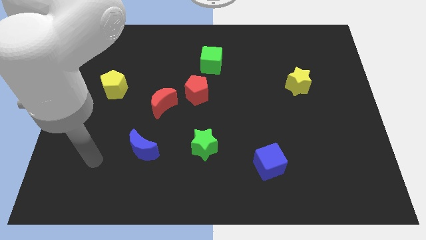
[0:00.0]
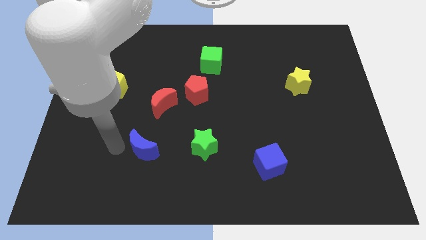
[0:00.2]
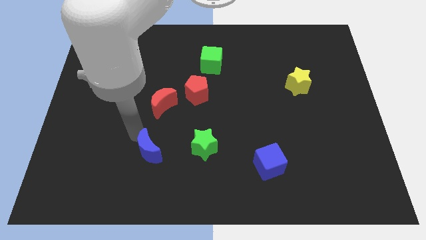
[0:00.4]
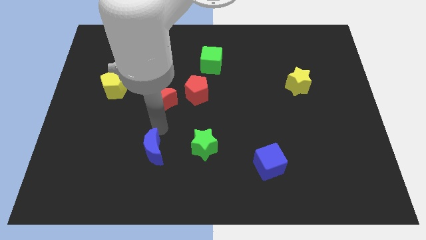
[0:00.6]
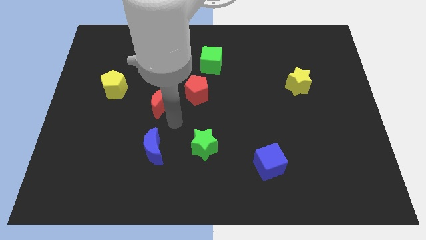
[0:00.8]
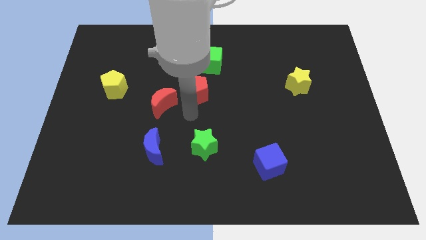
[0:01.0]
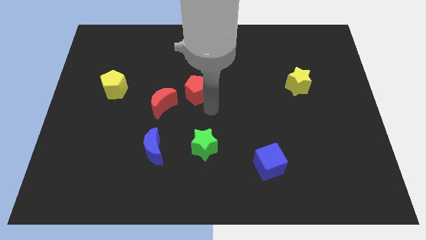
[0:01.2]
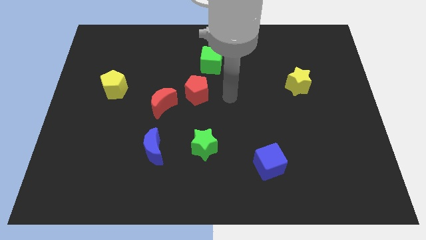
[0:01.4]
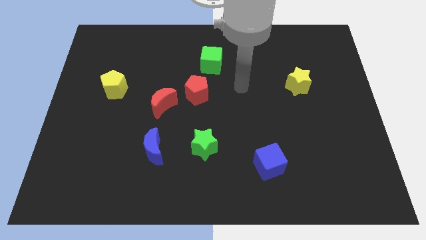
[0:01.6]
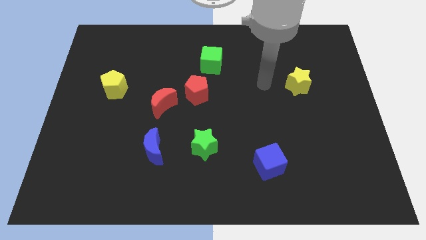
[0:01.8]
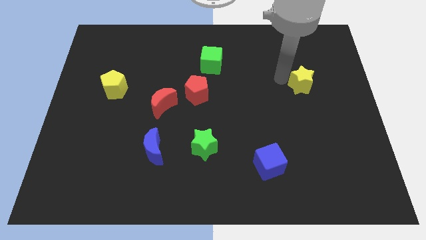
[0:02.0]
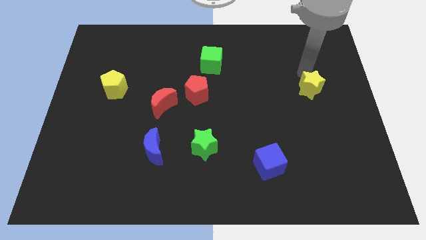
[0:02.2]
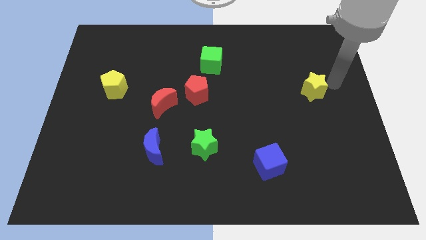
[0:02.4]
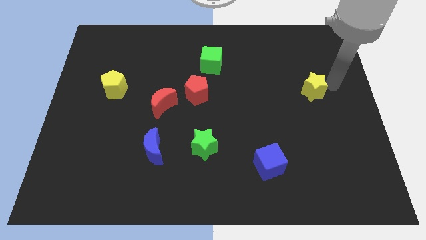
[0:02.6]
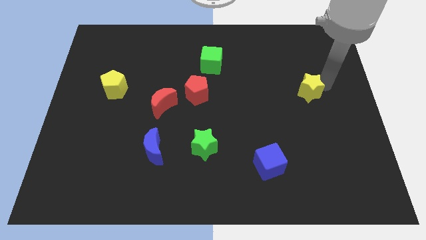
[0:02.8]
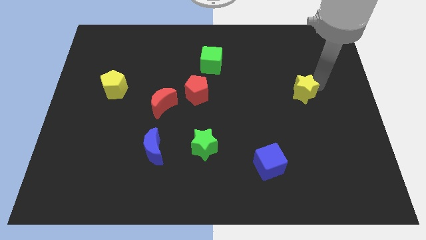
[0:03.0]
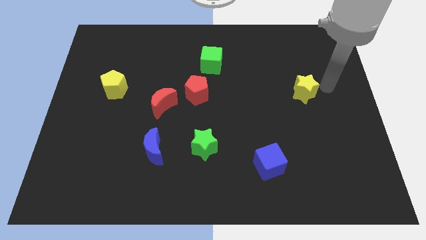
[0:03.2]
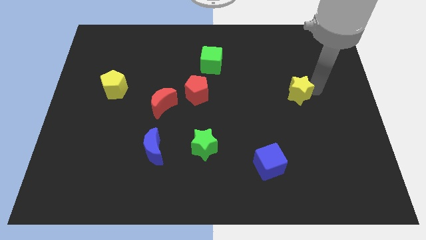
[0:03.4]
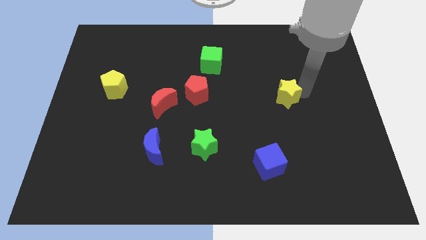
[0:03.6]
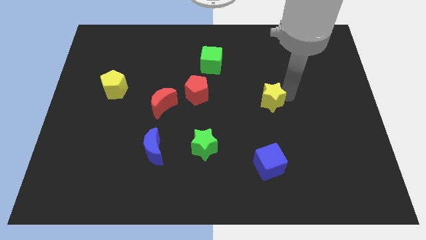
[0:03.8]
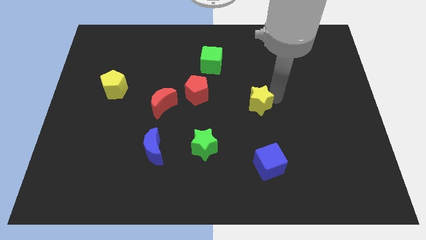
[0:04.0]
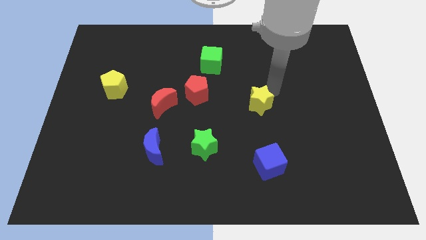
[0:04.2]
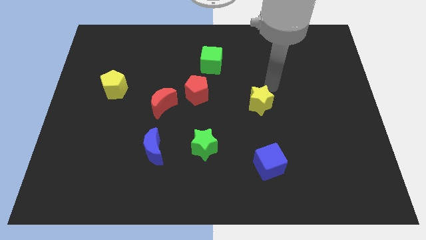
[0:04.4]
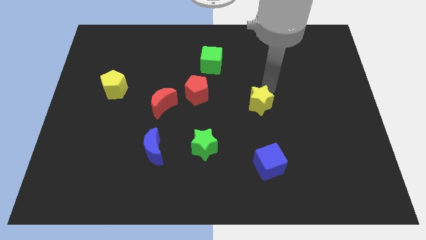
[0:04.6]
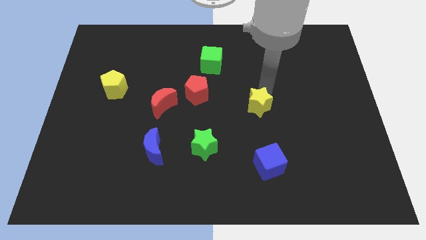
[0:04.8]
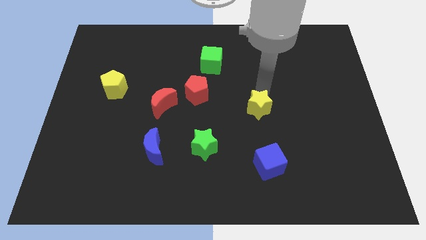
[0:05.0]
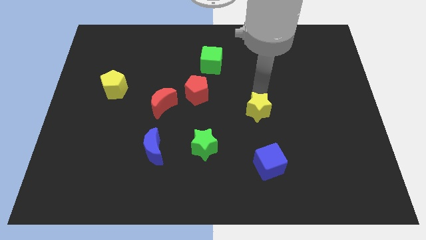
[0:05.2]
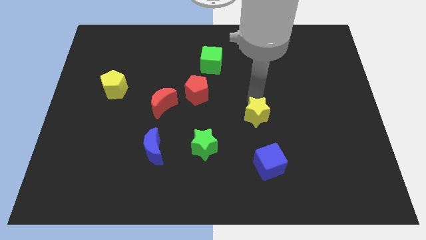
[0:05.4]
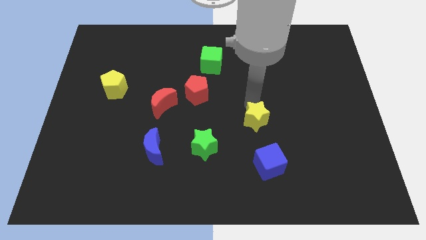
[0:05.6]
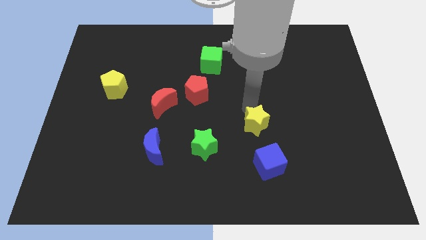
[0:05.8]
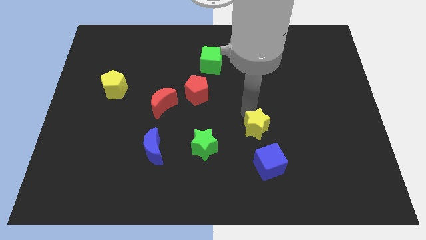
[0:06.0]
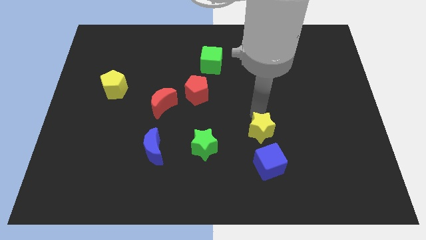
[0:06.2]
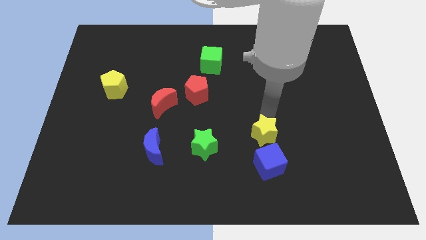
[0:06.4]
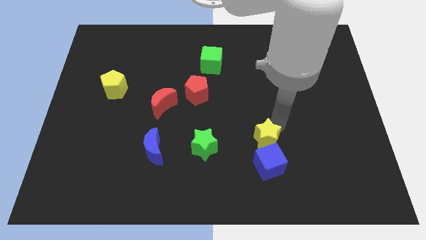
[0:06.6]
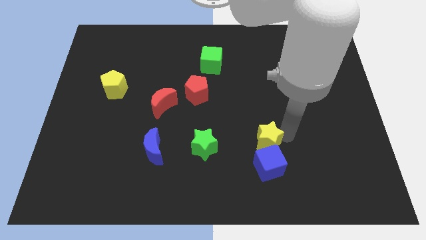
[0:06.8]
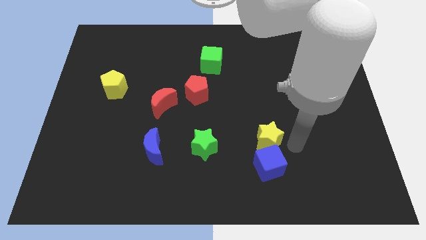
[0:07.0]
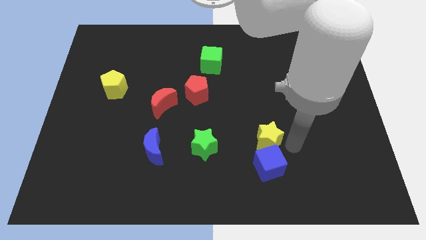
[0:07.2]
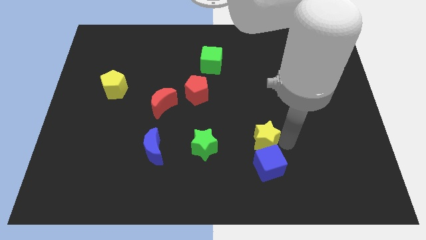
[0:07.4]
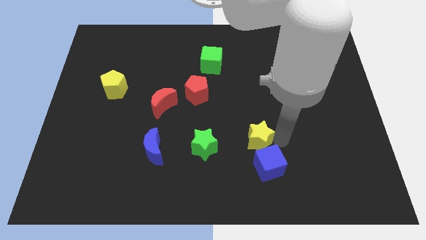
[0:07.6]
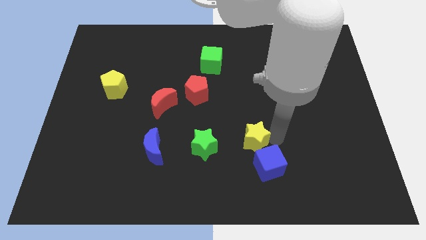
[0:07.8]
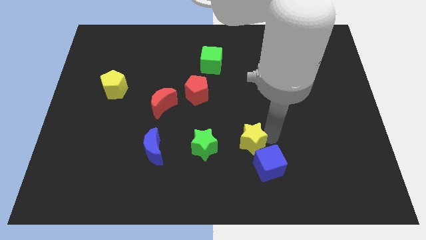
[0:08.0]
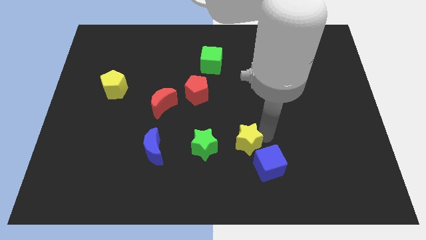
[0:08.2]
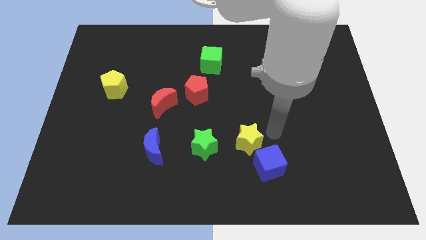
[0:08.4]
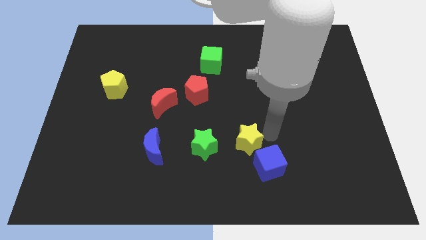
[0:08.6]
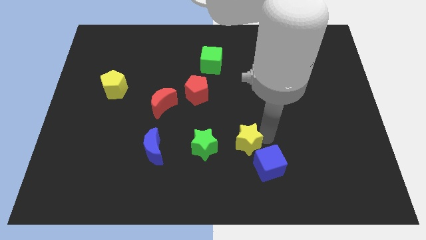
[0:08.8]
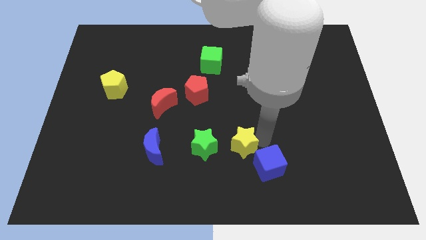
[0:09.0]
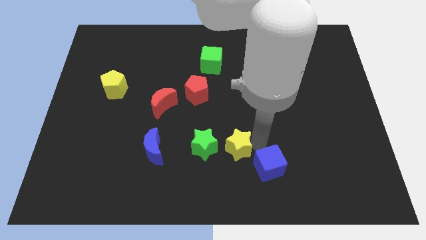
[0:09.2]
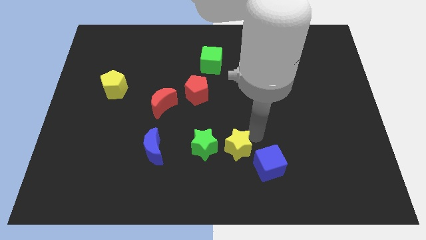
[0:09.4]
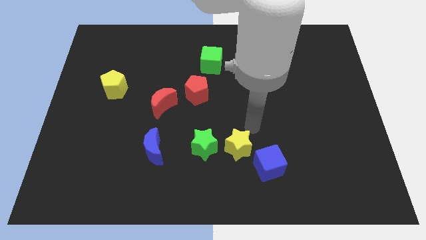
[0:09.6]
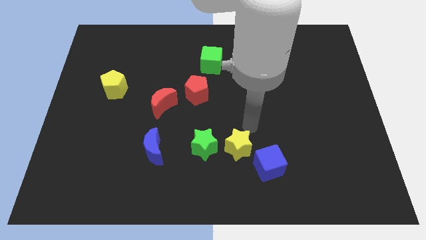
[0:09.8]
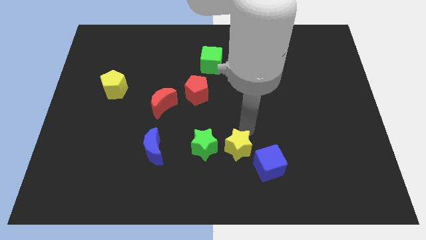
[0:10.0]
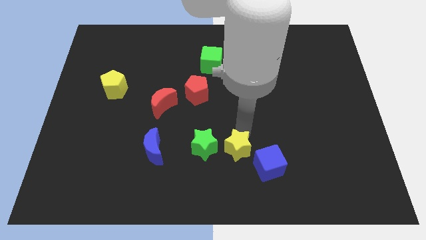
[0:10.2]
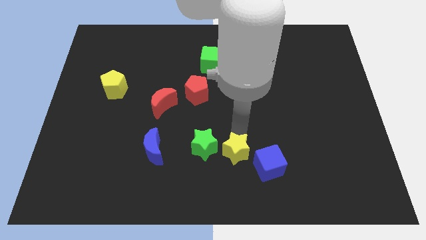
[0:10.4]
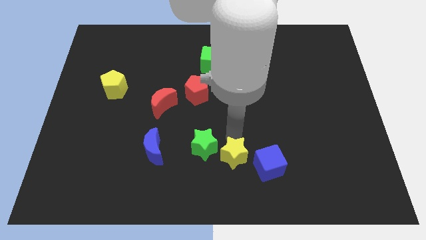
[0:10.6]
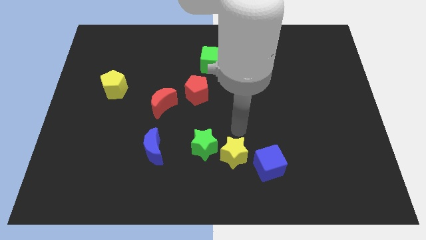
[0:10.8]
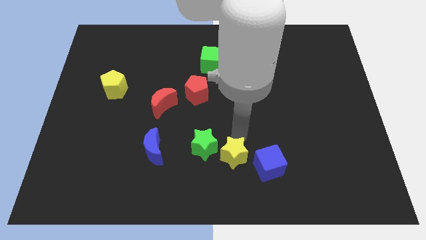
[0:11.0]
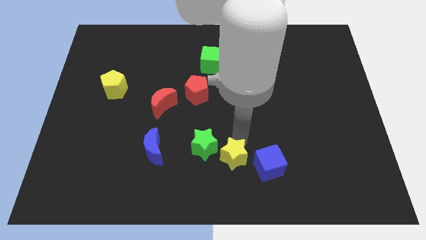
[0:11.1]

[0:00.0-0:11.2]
move the yellow star to the bottom side
